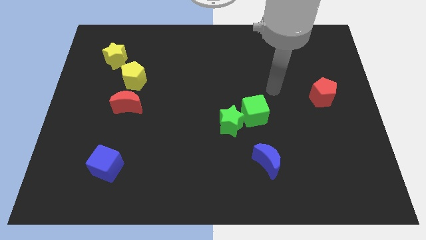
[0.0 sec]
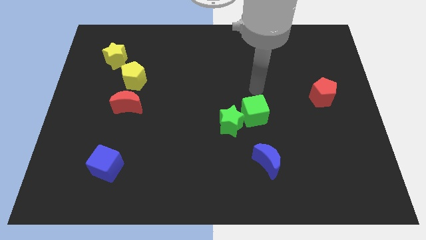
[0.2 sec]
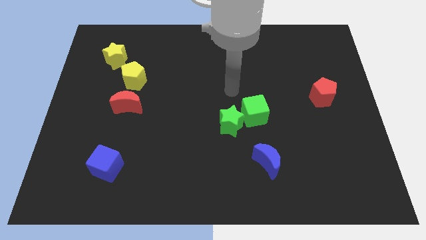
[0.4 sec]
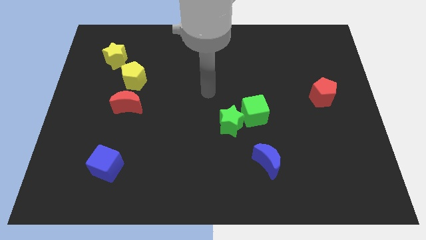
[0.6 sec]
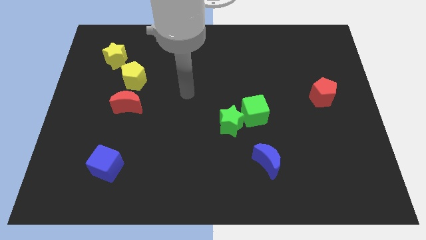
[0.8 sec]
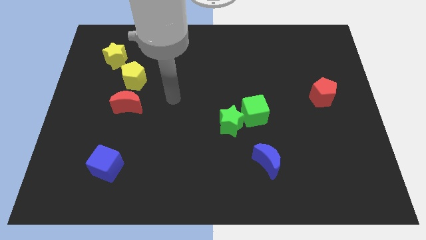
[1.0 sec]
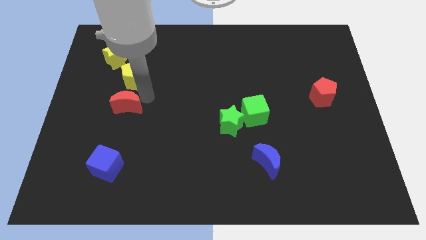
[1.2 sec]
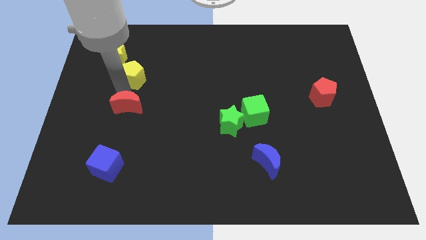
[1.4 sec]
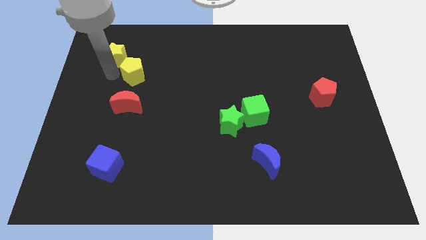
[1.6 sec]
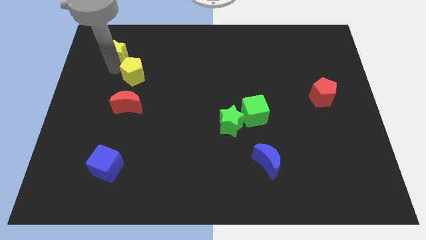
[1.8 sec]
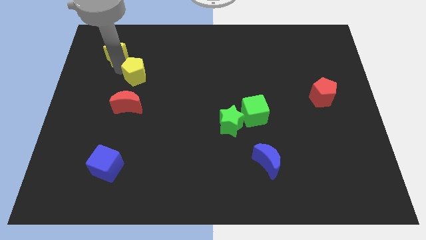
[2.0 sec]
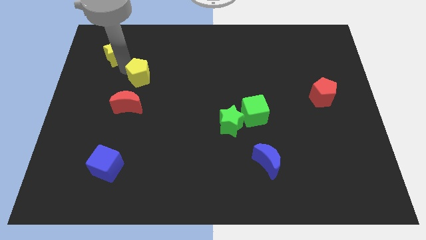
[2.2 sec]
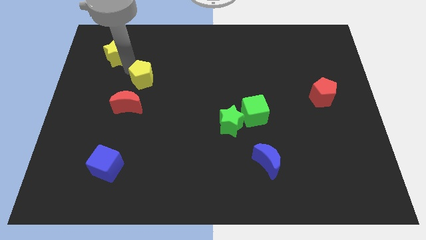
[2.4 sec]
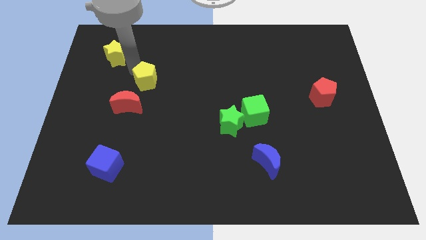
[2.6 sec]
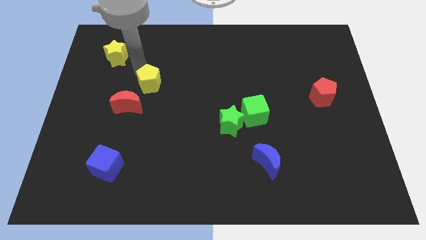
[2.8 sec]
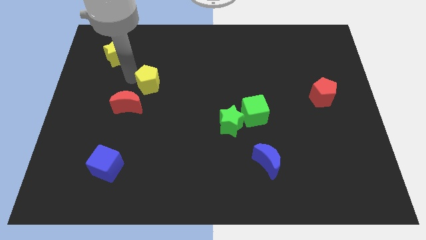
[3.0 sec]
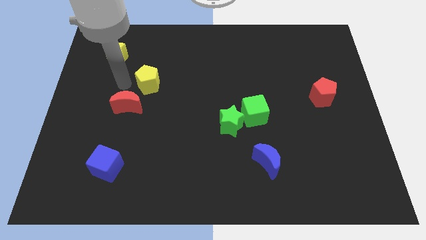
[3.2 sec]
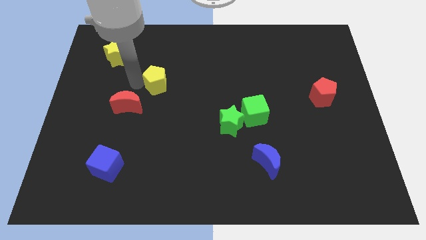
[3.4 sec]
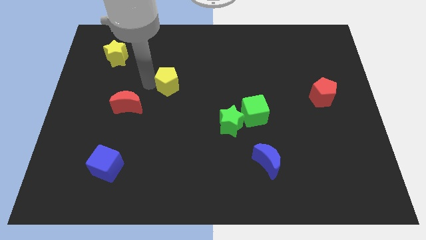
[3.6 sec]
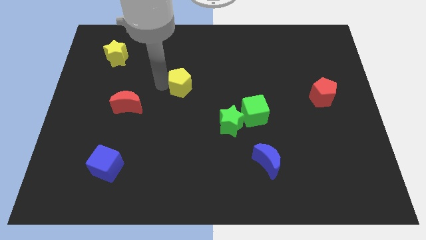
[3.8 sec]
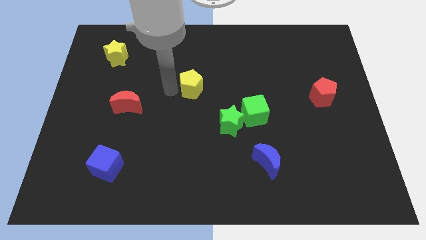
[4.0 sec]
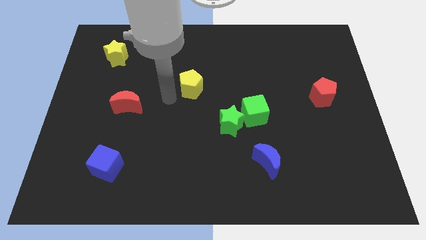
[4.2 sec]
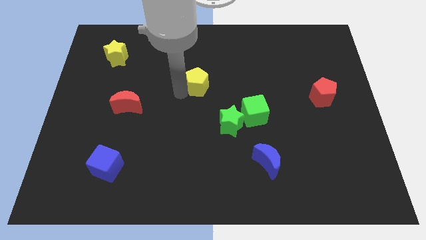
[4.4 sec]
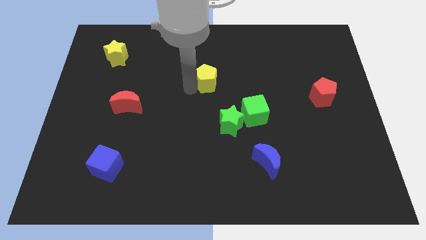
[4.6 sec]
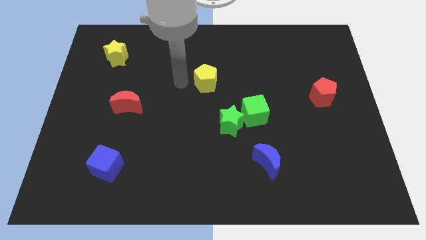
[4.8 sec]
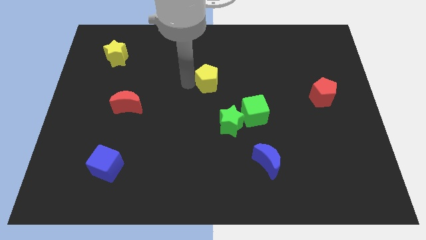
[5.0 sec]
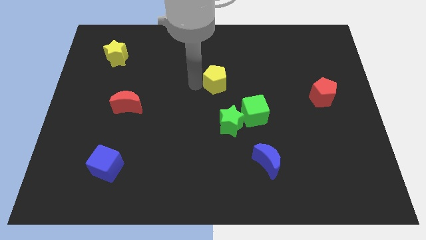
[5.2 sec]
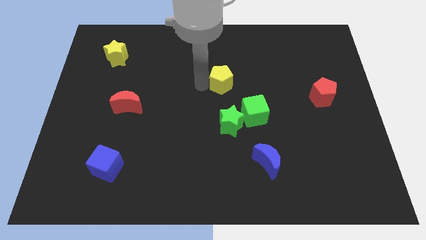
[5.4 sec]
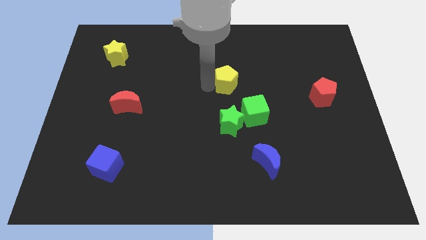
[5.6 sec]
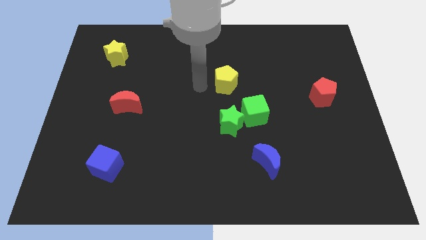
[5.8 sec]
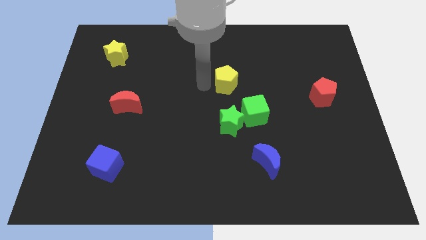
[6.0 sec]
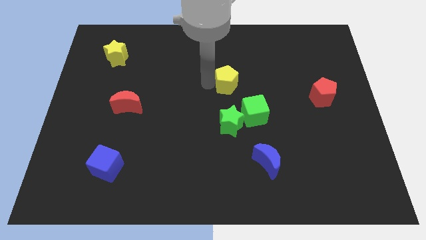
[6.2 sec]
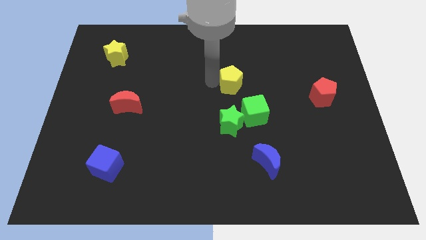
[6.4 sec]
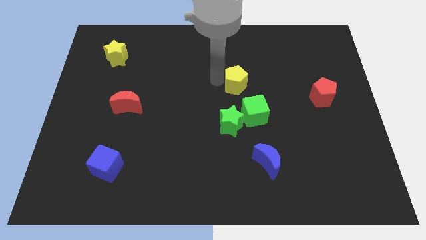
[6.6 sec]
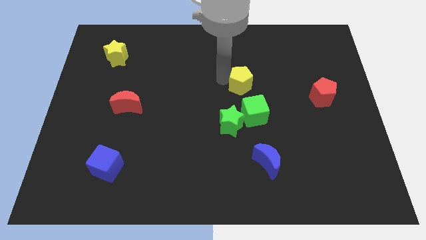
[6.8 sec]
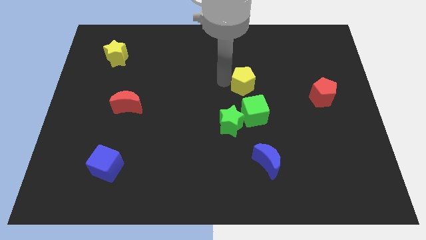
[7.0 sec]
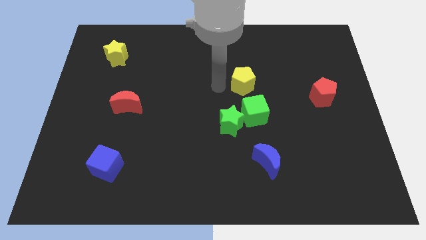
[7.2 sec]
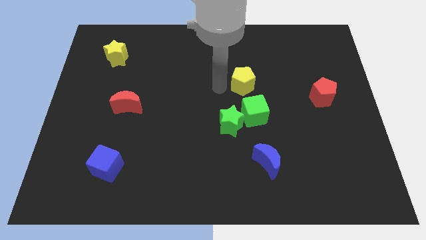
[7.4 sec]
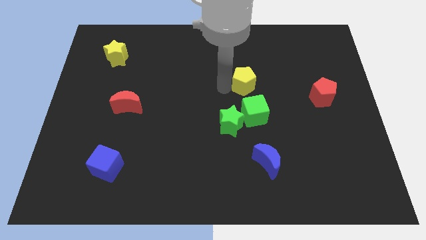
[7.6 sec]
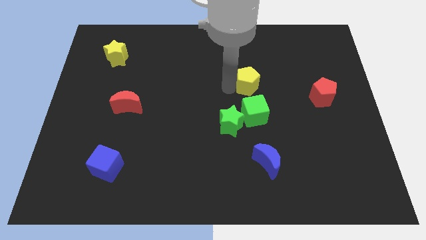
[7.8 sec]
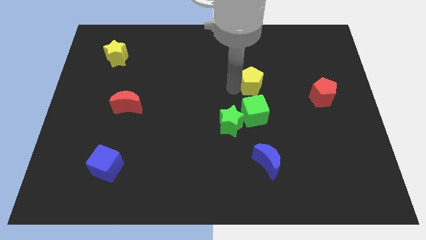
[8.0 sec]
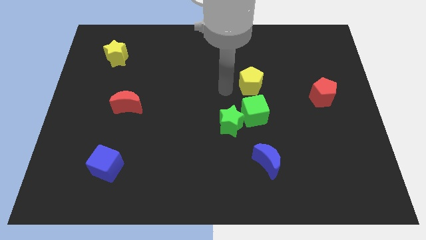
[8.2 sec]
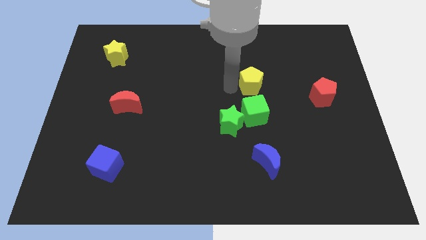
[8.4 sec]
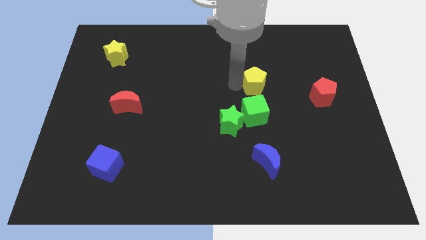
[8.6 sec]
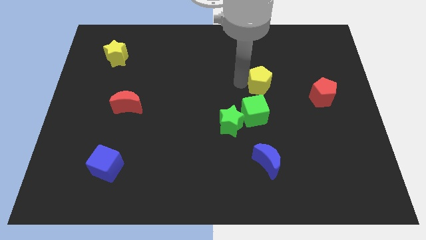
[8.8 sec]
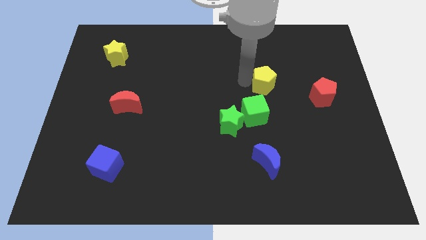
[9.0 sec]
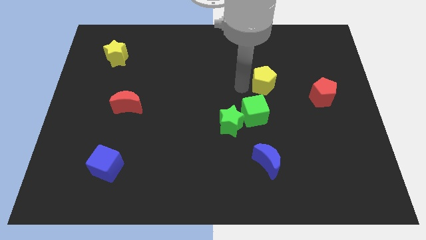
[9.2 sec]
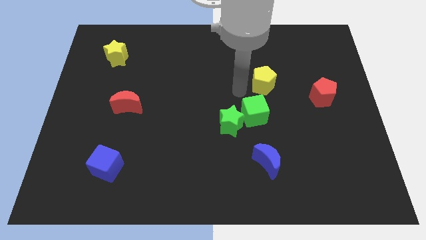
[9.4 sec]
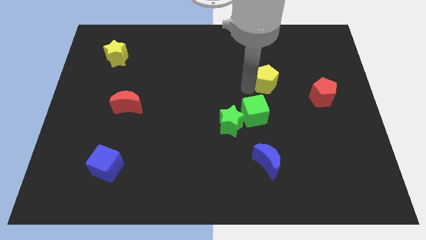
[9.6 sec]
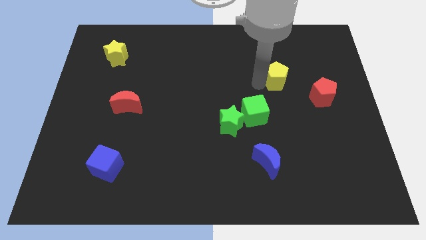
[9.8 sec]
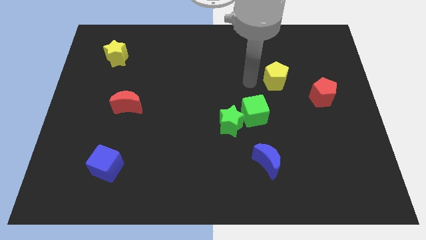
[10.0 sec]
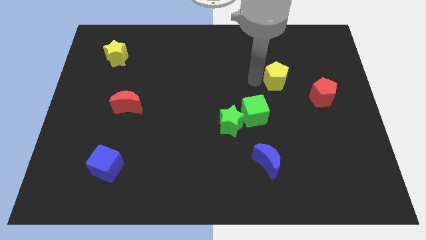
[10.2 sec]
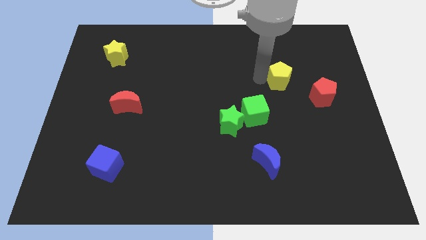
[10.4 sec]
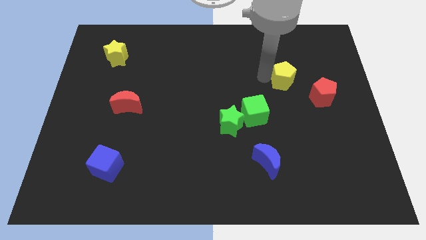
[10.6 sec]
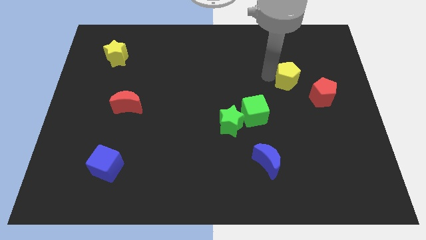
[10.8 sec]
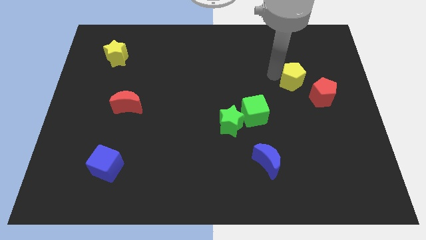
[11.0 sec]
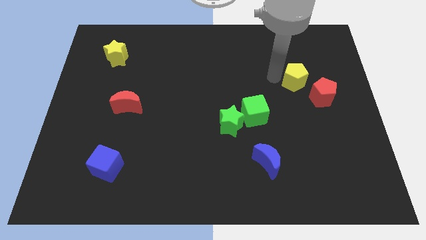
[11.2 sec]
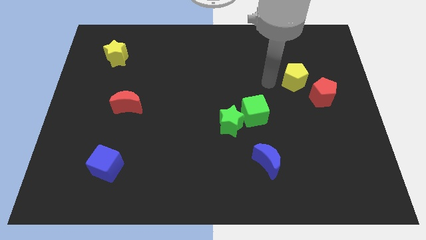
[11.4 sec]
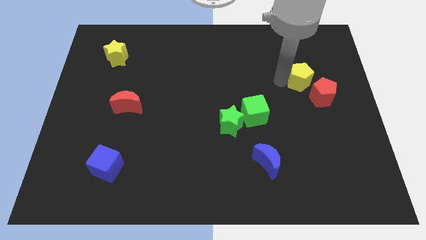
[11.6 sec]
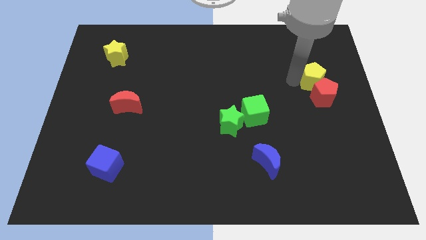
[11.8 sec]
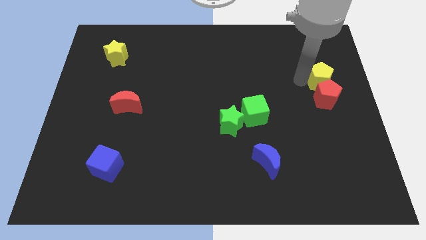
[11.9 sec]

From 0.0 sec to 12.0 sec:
move the yellow pentagon to the right side of the board

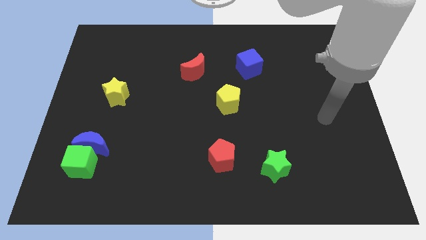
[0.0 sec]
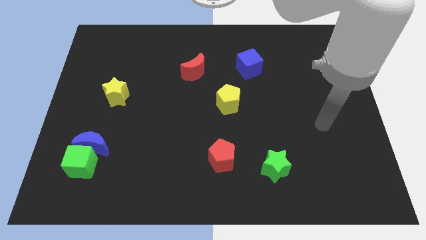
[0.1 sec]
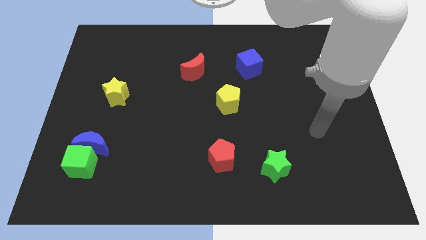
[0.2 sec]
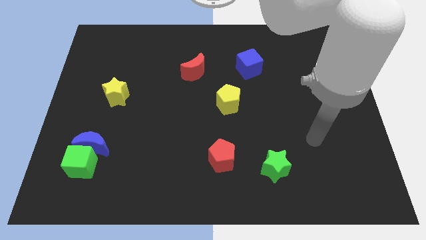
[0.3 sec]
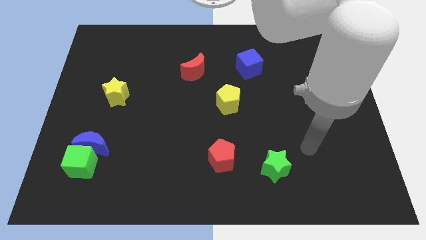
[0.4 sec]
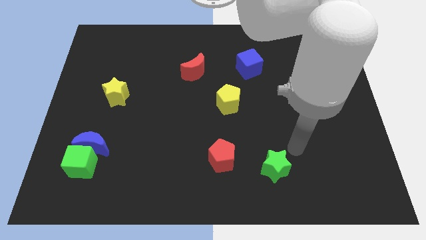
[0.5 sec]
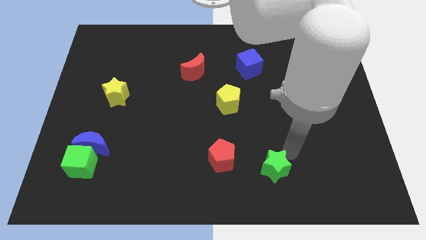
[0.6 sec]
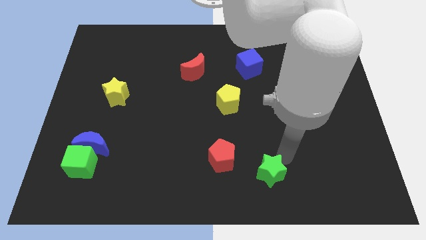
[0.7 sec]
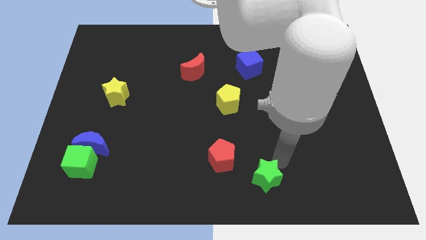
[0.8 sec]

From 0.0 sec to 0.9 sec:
put the green star to the bottom
